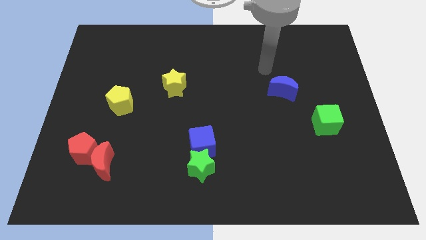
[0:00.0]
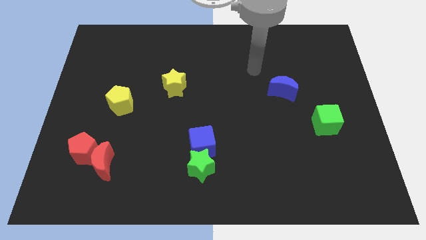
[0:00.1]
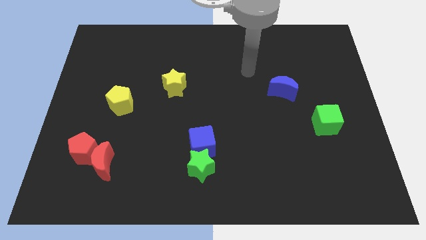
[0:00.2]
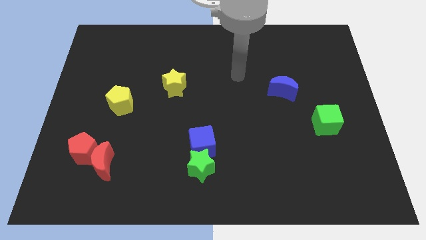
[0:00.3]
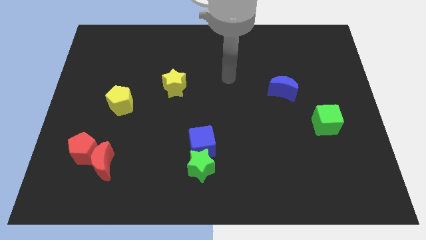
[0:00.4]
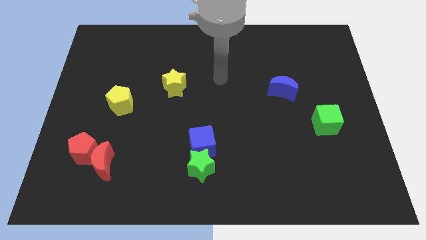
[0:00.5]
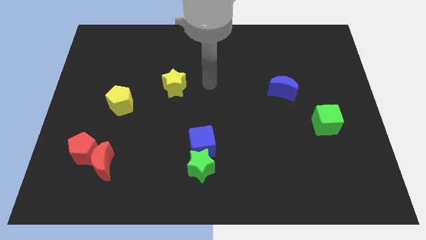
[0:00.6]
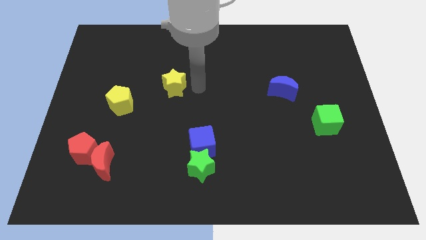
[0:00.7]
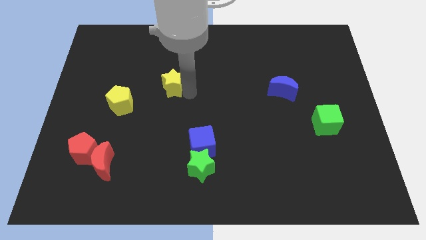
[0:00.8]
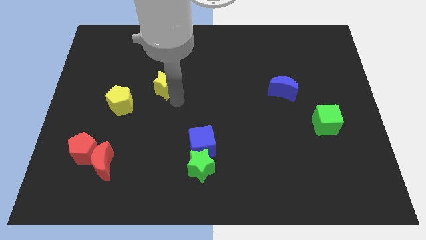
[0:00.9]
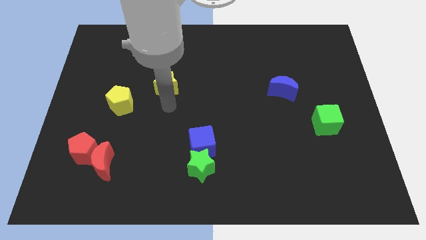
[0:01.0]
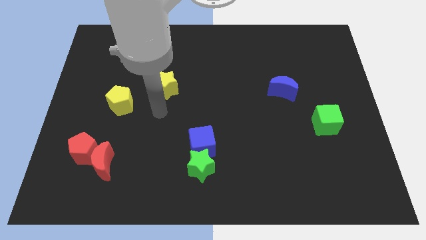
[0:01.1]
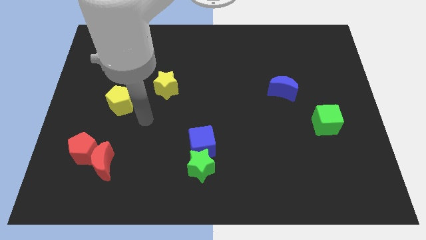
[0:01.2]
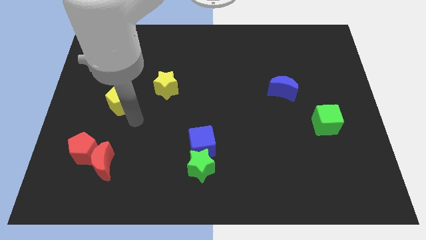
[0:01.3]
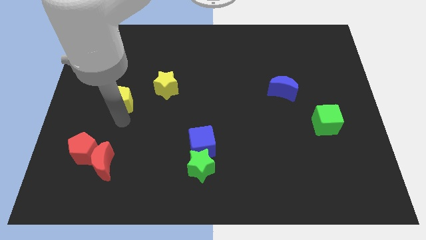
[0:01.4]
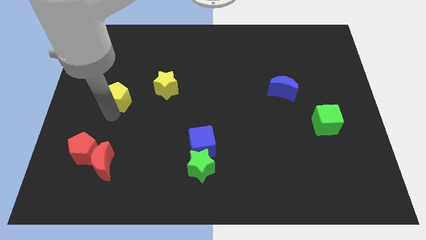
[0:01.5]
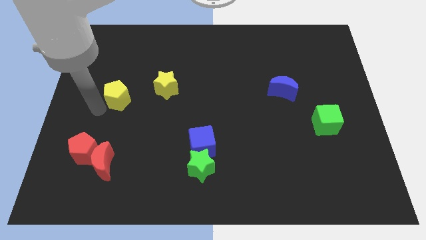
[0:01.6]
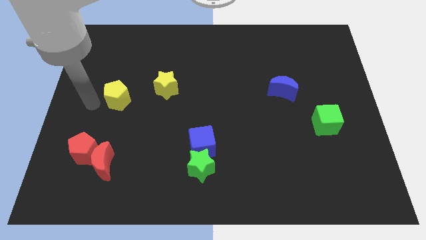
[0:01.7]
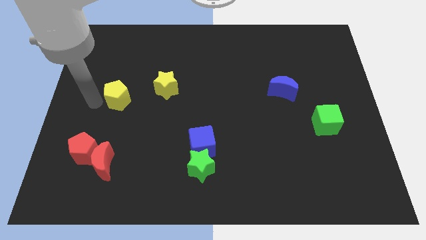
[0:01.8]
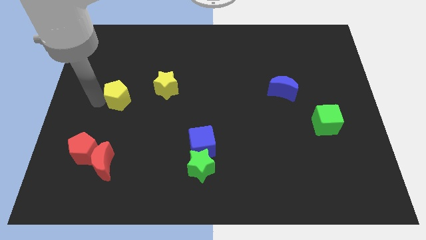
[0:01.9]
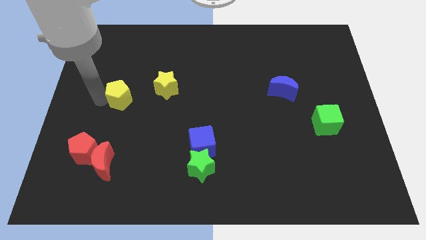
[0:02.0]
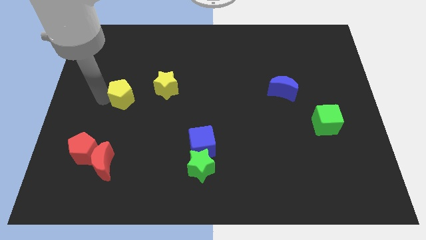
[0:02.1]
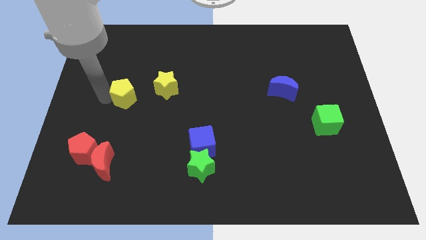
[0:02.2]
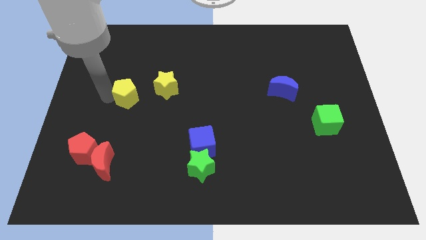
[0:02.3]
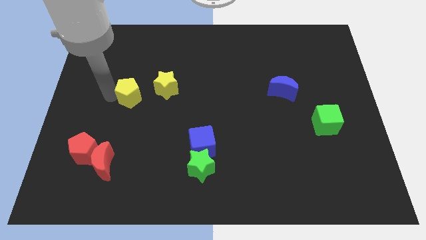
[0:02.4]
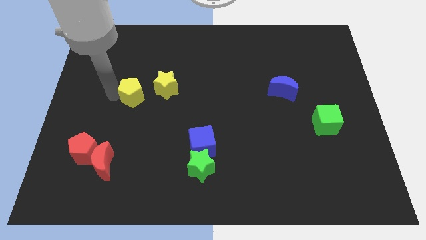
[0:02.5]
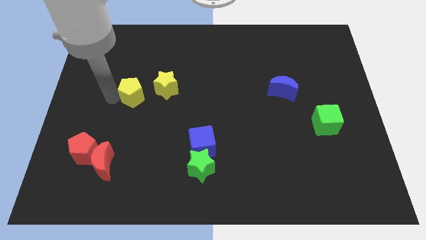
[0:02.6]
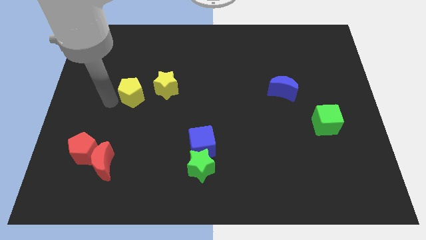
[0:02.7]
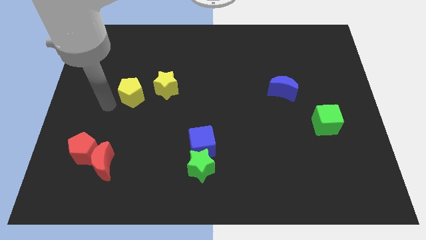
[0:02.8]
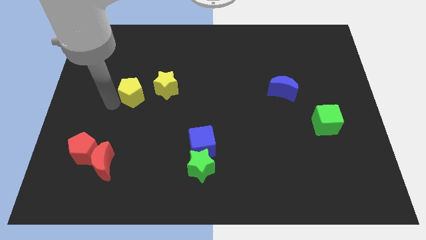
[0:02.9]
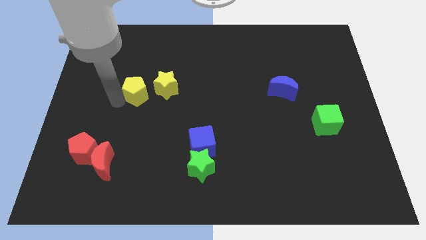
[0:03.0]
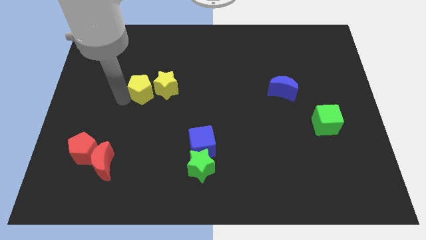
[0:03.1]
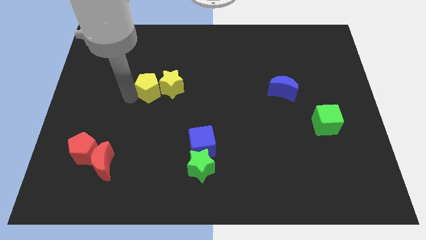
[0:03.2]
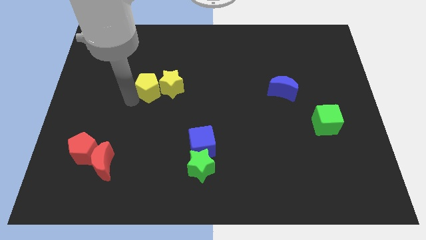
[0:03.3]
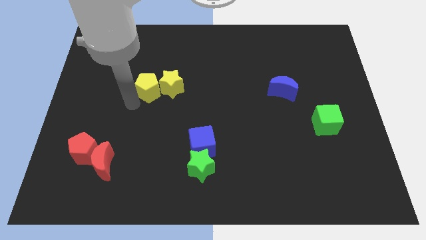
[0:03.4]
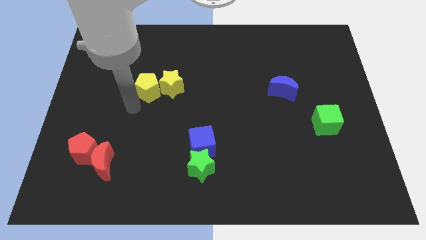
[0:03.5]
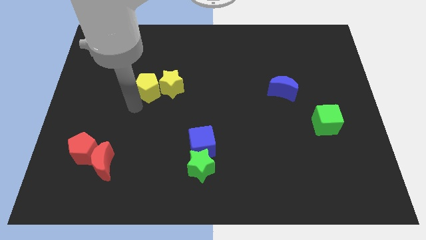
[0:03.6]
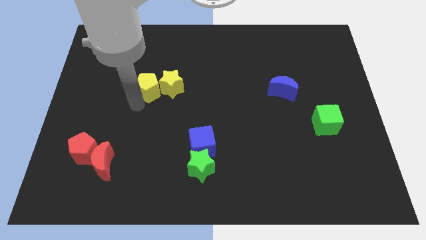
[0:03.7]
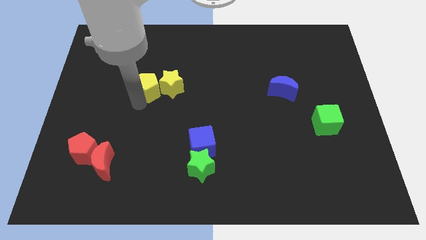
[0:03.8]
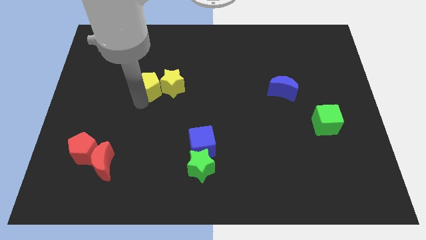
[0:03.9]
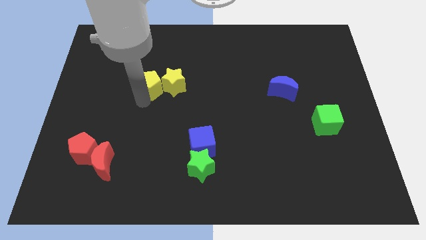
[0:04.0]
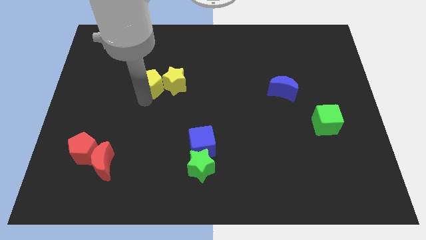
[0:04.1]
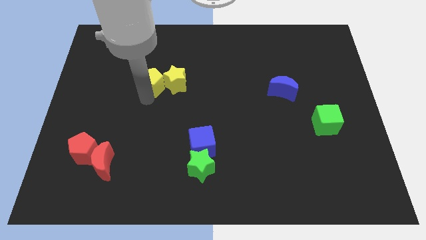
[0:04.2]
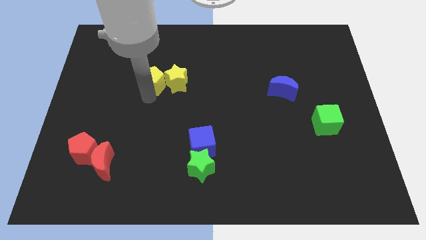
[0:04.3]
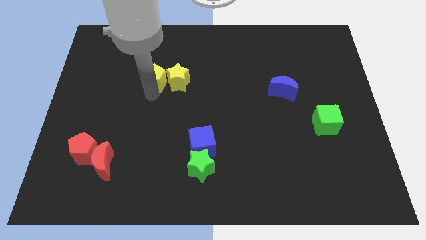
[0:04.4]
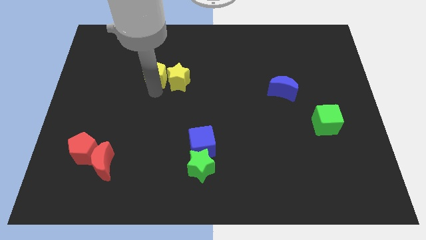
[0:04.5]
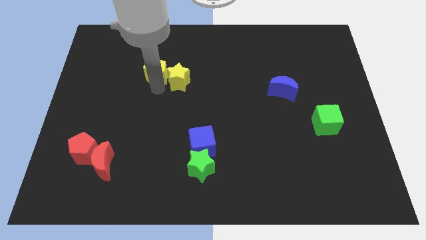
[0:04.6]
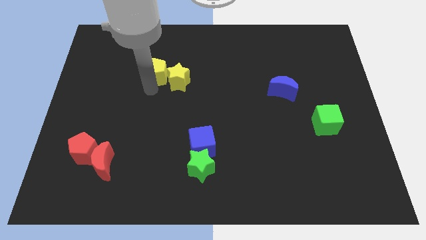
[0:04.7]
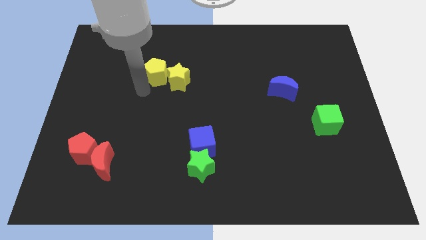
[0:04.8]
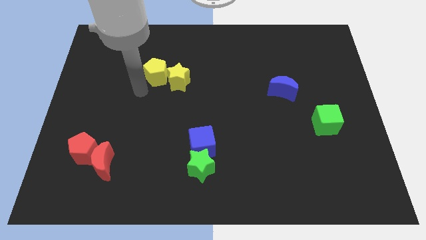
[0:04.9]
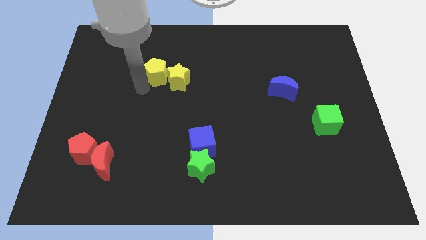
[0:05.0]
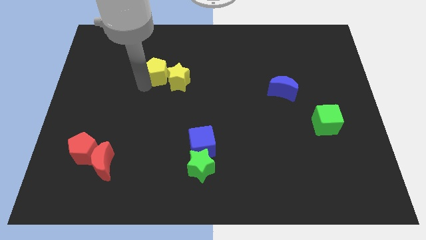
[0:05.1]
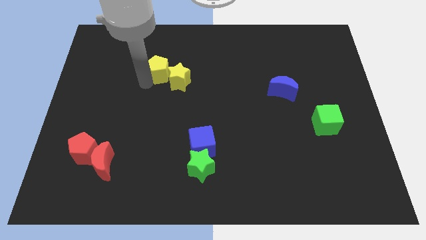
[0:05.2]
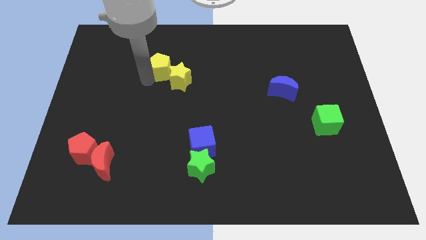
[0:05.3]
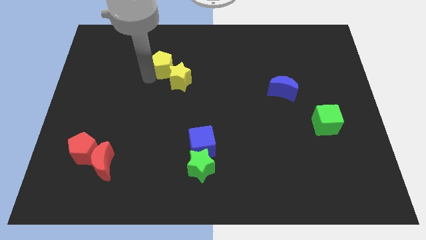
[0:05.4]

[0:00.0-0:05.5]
slide the yellow pentagon to the top side of the yellow star

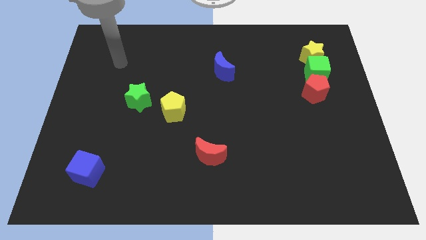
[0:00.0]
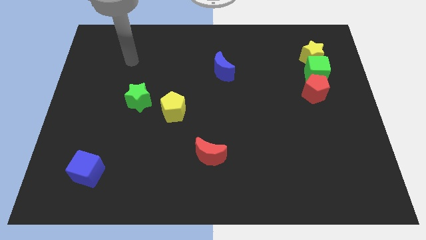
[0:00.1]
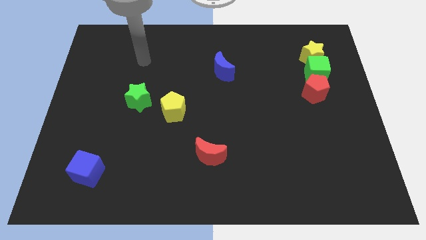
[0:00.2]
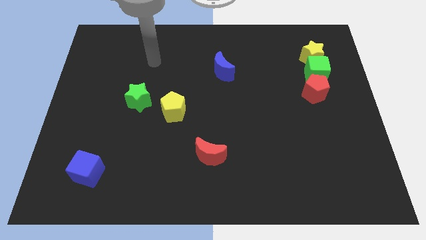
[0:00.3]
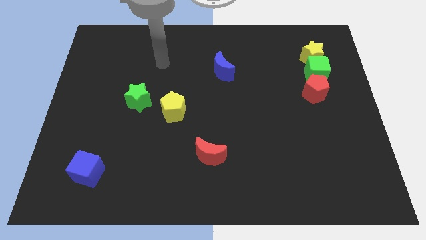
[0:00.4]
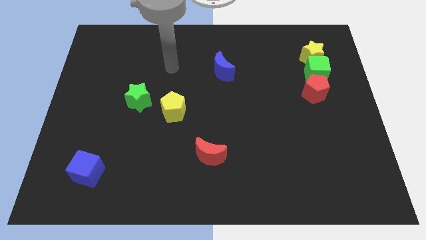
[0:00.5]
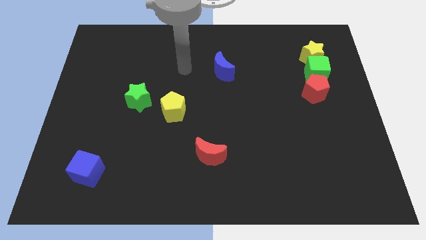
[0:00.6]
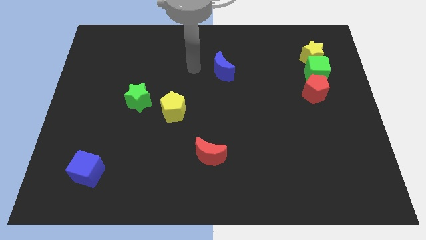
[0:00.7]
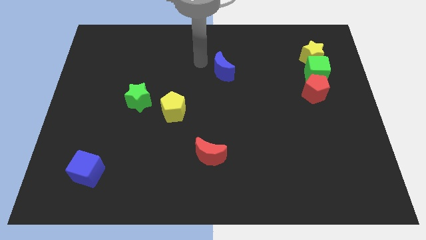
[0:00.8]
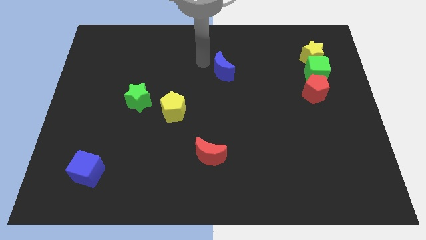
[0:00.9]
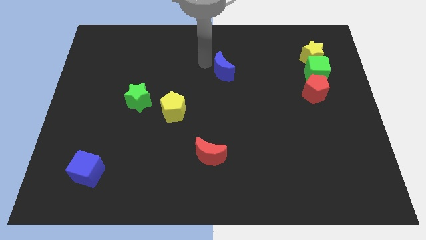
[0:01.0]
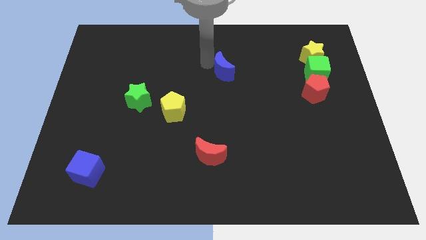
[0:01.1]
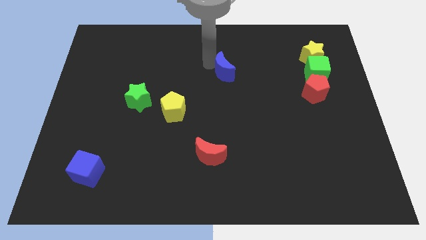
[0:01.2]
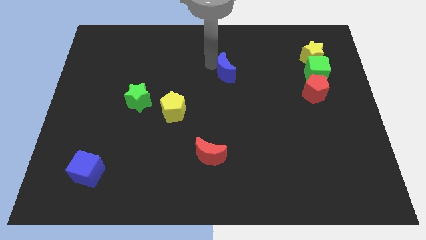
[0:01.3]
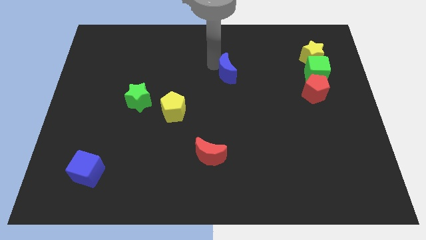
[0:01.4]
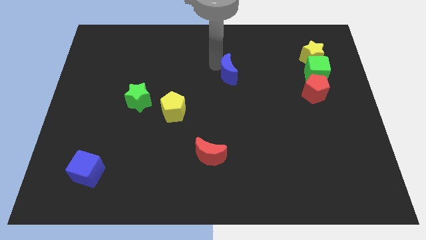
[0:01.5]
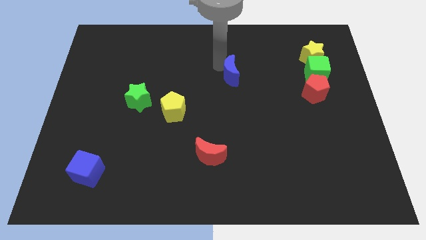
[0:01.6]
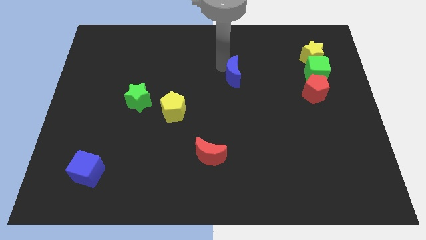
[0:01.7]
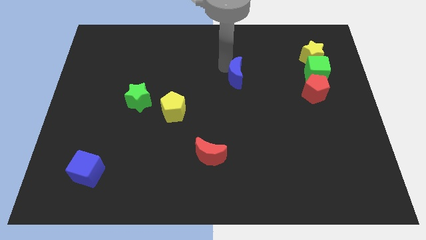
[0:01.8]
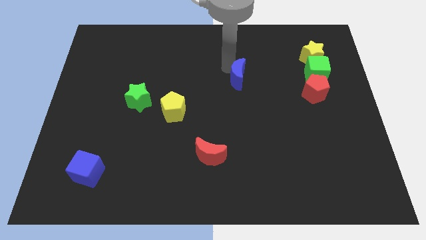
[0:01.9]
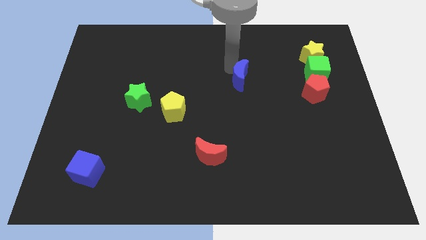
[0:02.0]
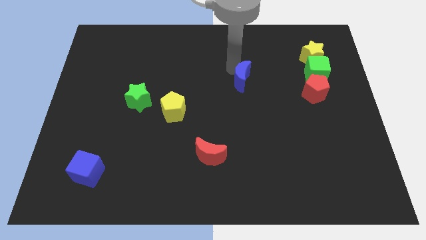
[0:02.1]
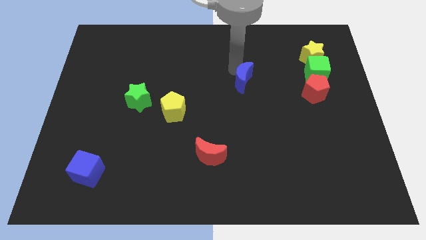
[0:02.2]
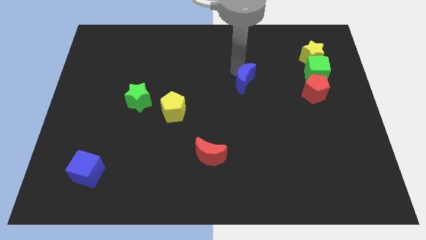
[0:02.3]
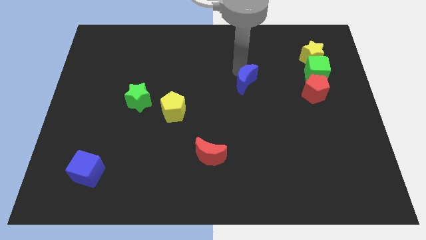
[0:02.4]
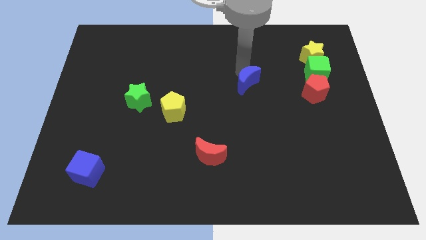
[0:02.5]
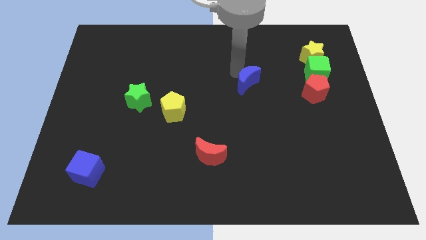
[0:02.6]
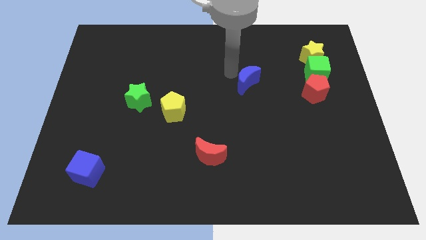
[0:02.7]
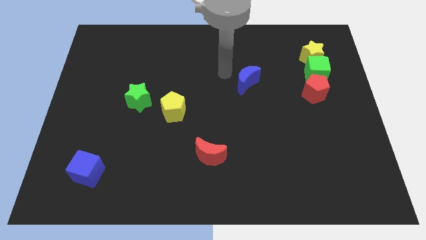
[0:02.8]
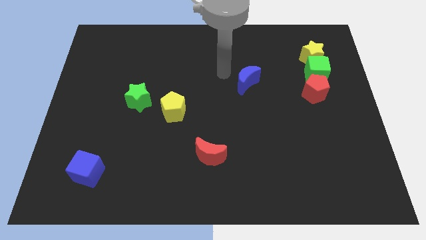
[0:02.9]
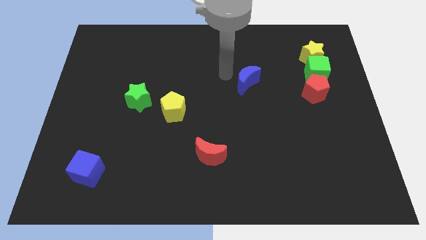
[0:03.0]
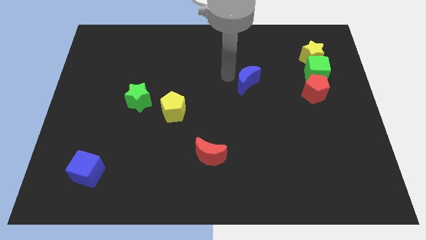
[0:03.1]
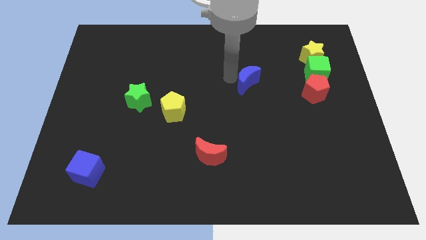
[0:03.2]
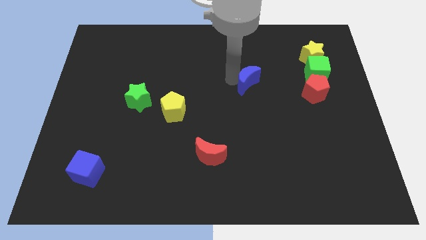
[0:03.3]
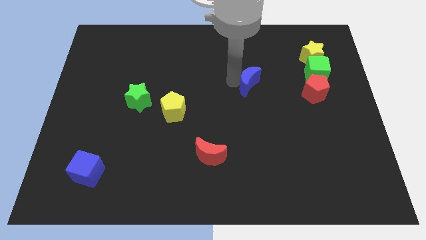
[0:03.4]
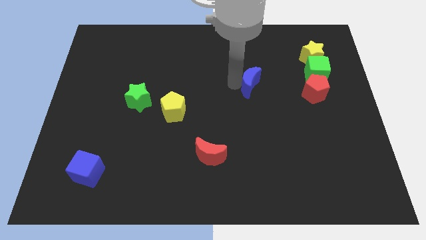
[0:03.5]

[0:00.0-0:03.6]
slide the blue moon just left of the red pentagon
